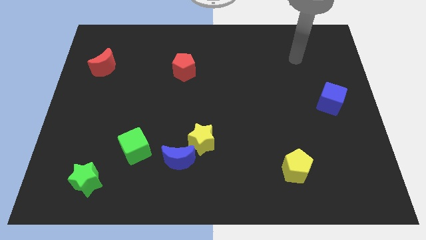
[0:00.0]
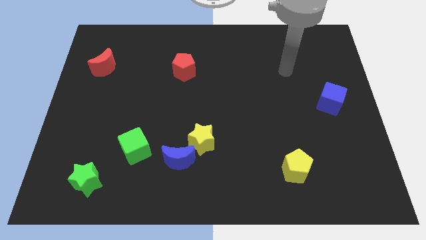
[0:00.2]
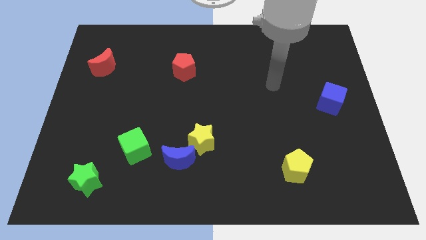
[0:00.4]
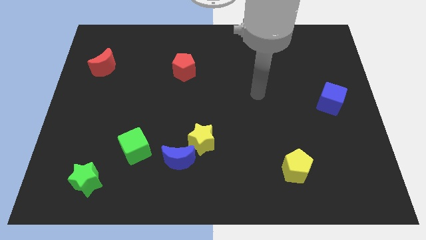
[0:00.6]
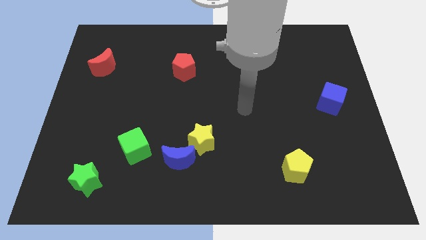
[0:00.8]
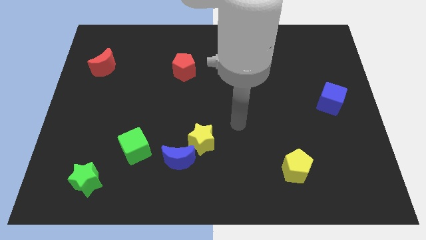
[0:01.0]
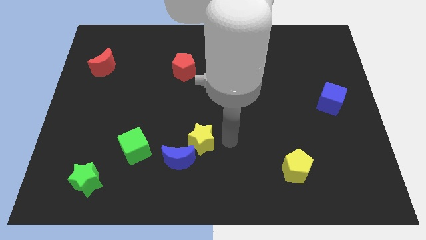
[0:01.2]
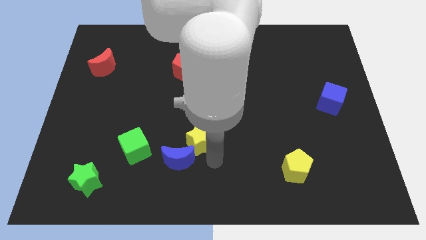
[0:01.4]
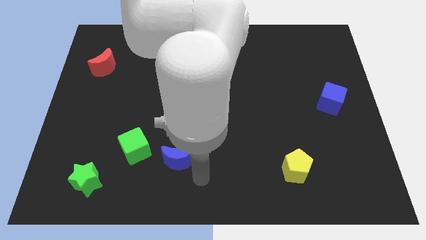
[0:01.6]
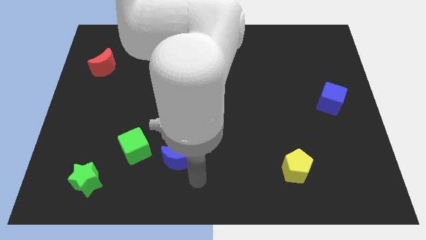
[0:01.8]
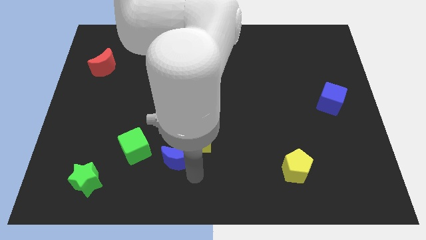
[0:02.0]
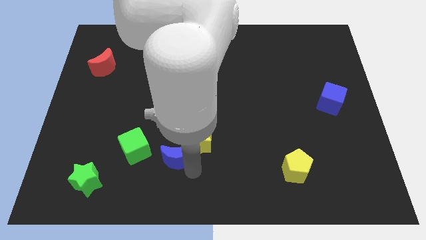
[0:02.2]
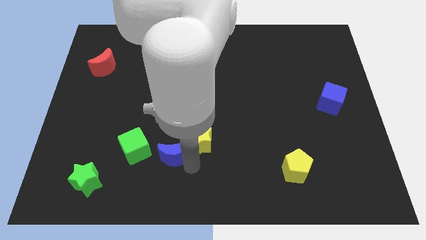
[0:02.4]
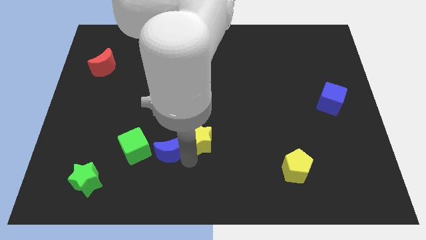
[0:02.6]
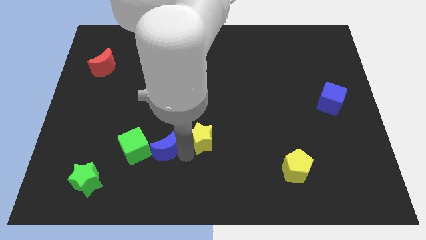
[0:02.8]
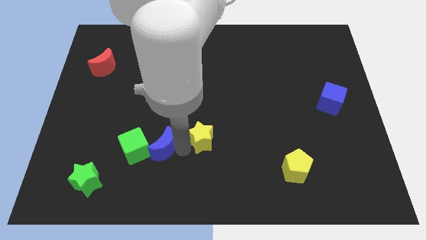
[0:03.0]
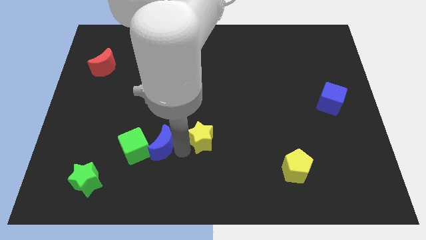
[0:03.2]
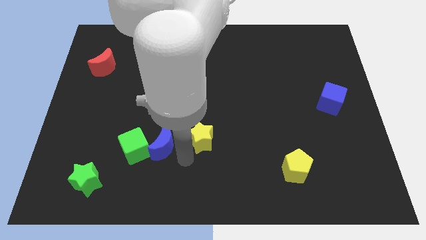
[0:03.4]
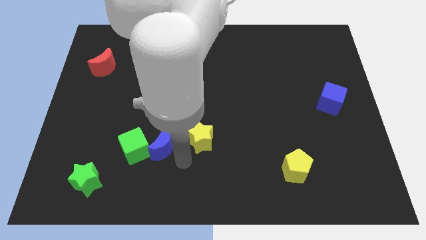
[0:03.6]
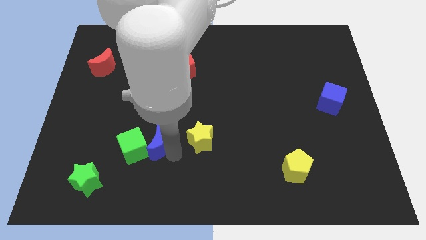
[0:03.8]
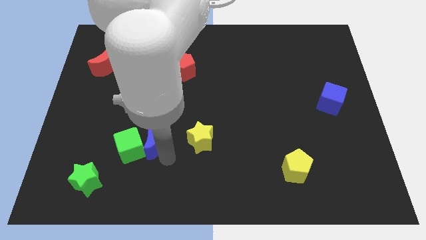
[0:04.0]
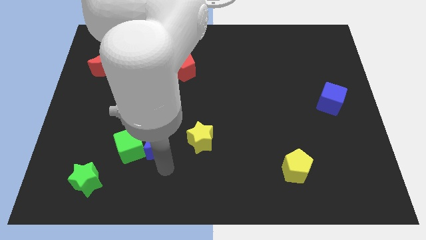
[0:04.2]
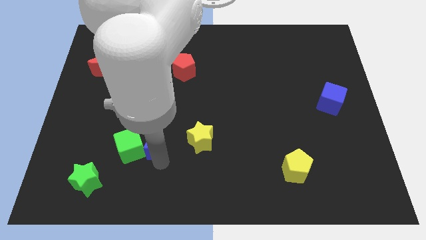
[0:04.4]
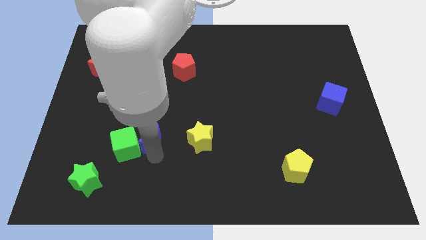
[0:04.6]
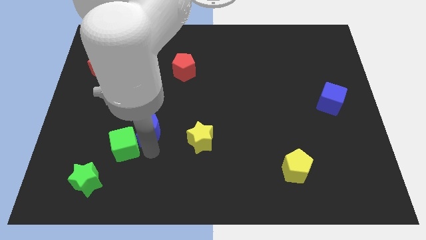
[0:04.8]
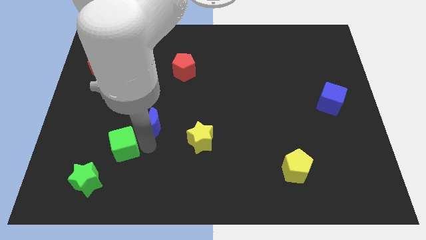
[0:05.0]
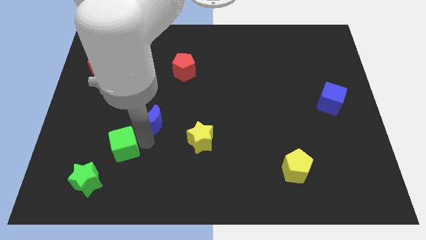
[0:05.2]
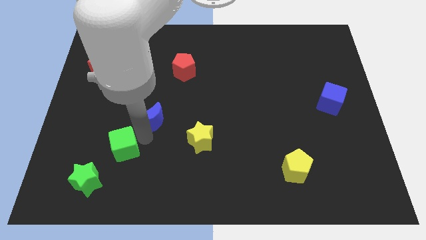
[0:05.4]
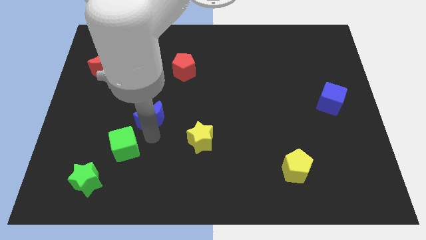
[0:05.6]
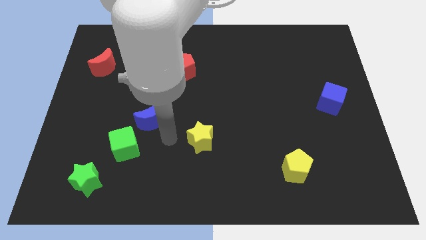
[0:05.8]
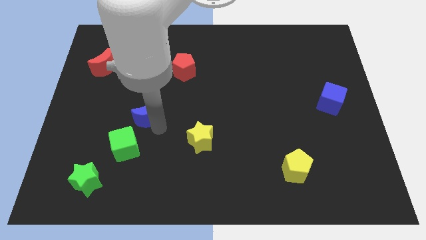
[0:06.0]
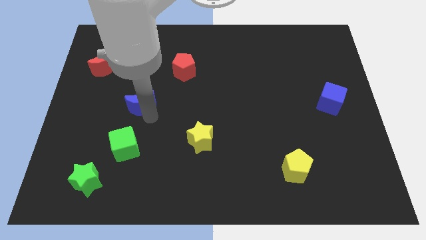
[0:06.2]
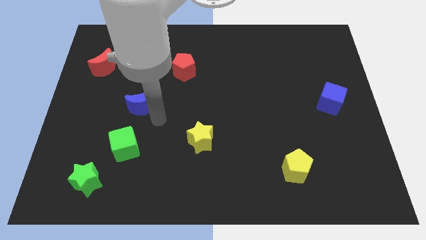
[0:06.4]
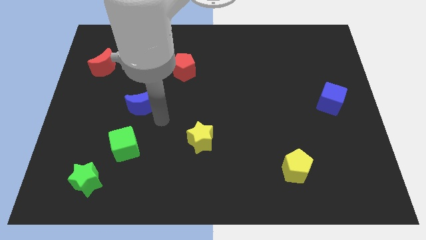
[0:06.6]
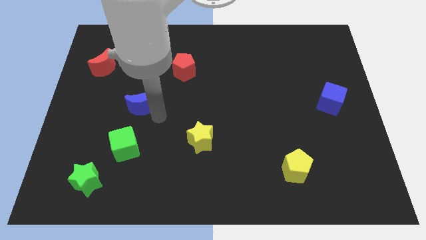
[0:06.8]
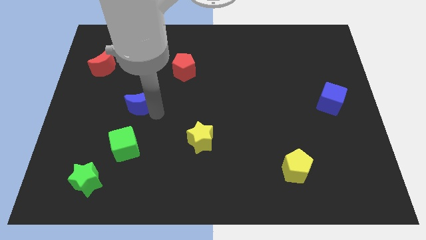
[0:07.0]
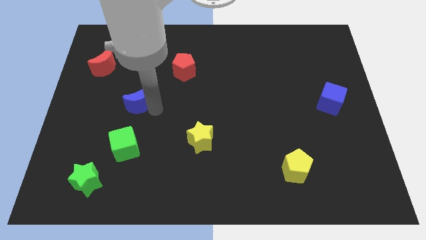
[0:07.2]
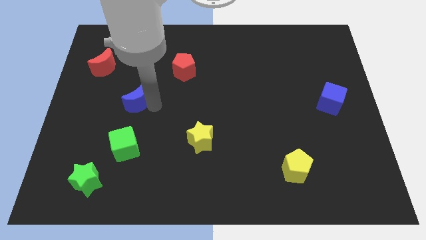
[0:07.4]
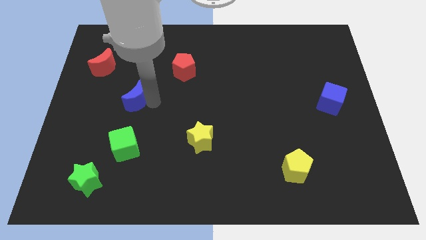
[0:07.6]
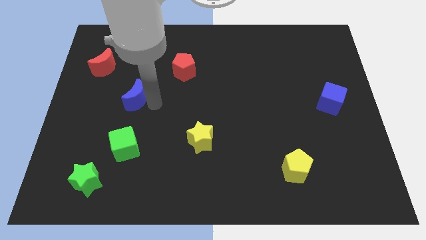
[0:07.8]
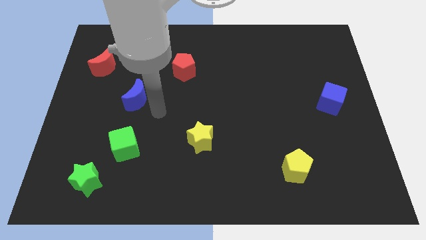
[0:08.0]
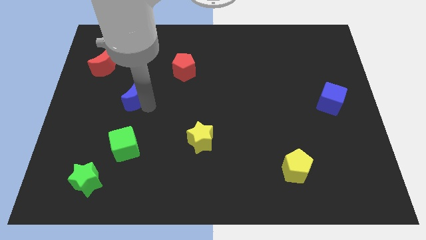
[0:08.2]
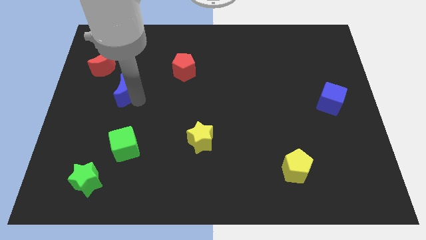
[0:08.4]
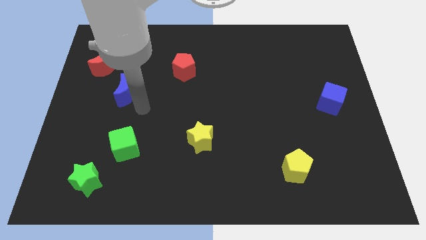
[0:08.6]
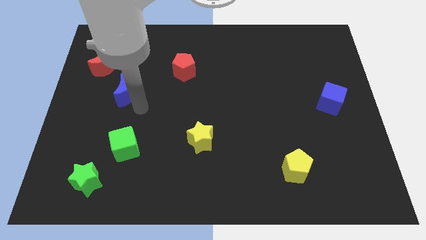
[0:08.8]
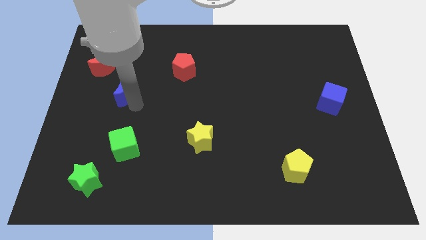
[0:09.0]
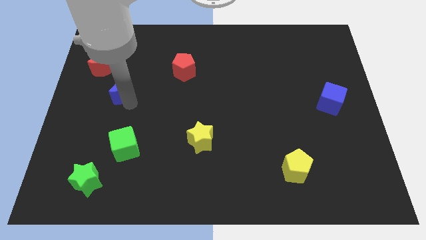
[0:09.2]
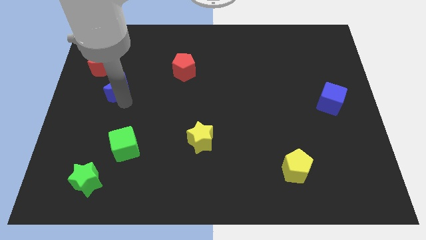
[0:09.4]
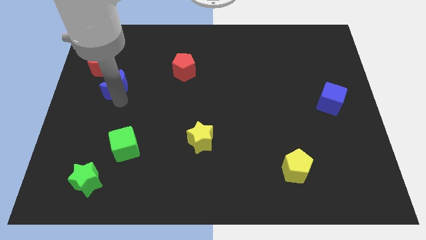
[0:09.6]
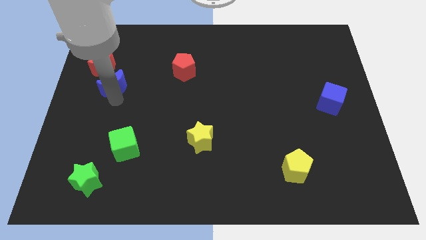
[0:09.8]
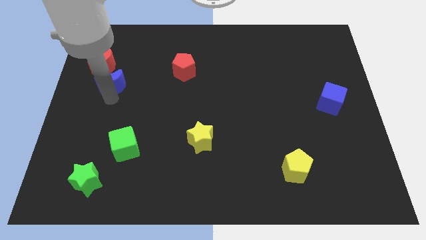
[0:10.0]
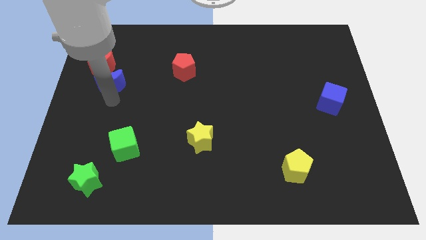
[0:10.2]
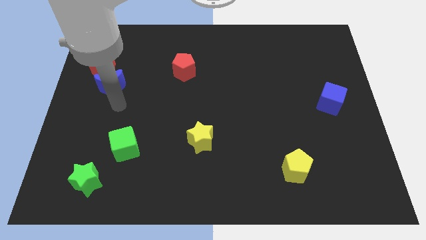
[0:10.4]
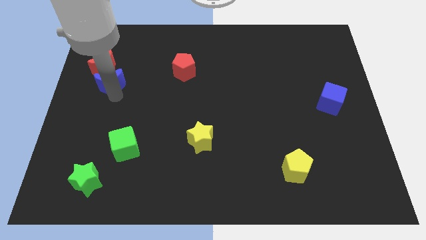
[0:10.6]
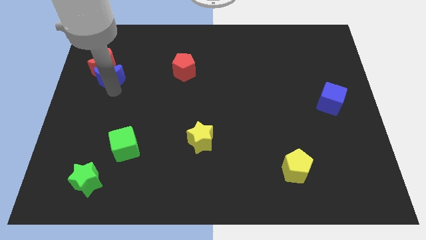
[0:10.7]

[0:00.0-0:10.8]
put the blue moon next to the red moon

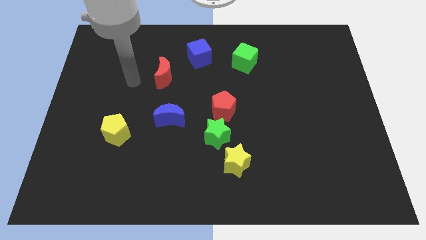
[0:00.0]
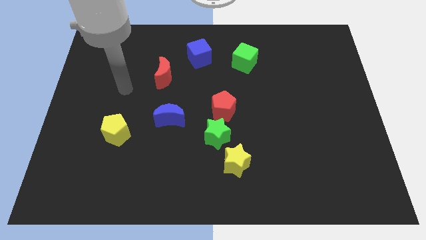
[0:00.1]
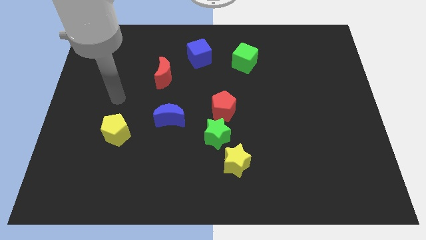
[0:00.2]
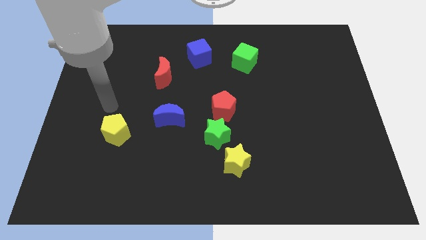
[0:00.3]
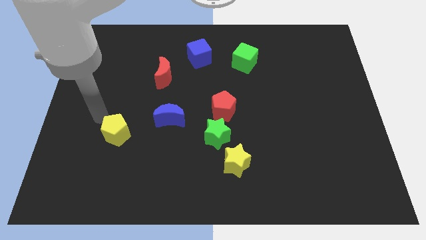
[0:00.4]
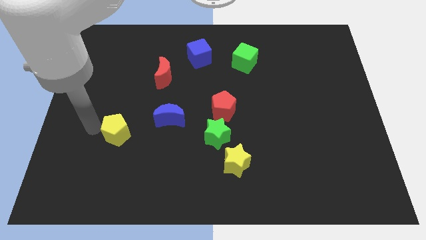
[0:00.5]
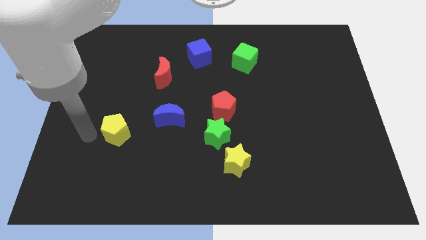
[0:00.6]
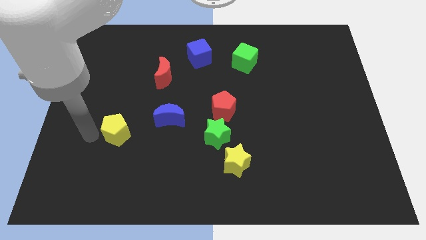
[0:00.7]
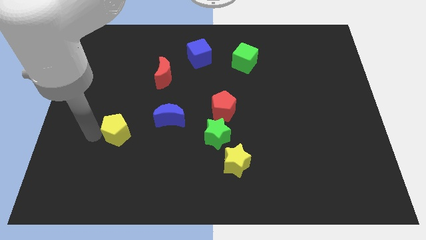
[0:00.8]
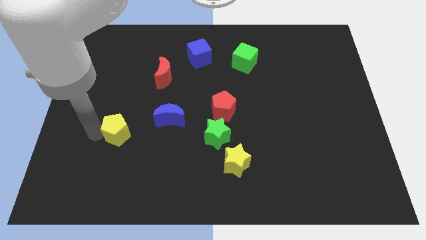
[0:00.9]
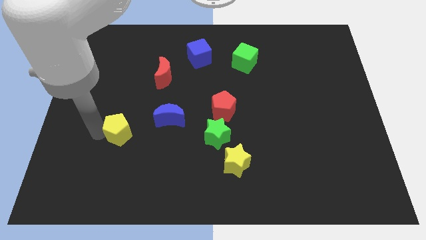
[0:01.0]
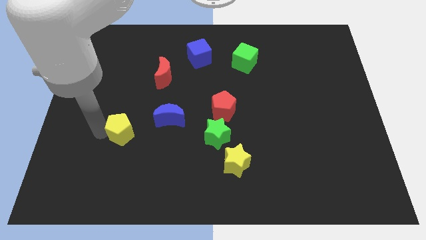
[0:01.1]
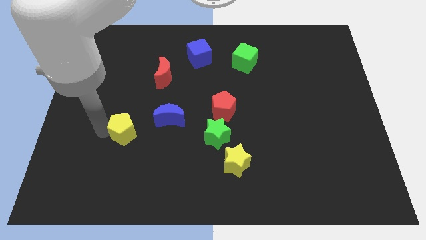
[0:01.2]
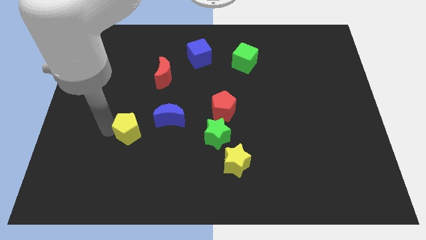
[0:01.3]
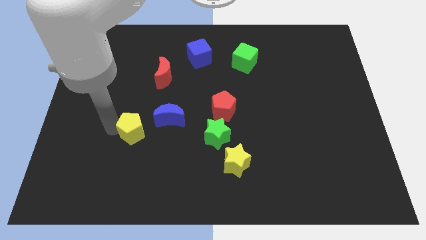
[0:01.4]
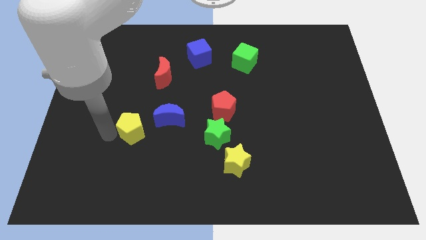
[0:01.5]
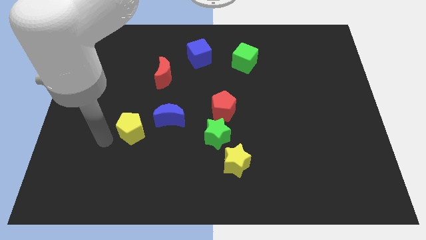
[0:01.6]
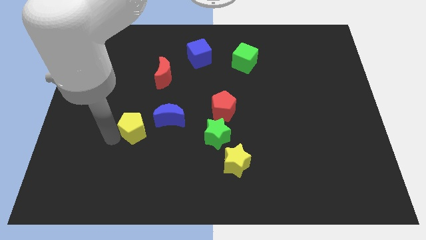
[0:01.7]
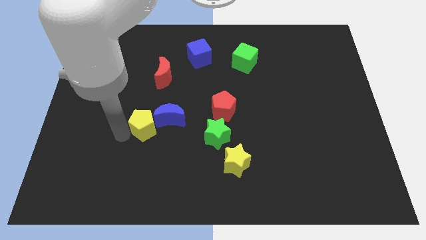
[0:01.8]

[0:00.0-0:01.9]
put the yellow pentagon next to the blue moon
